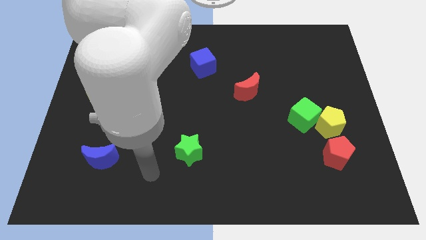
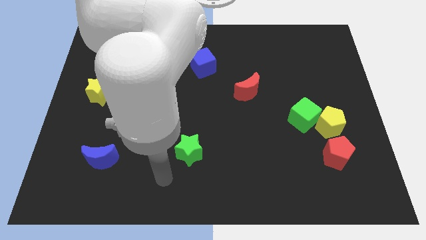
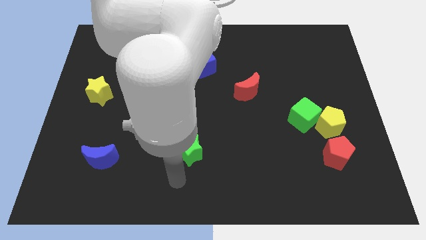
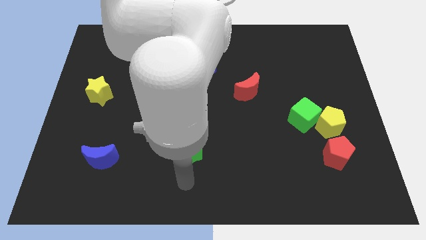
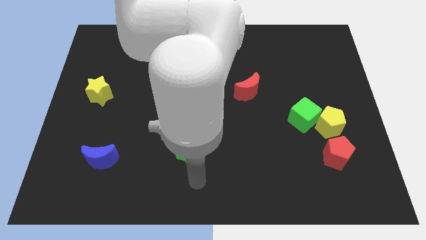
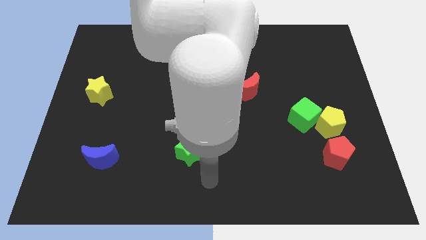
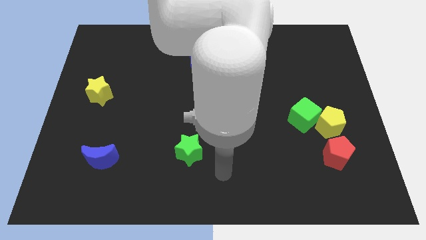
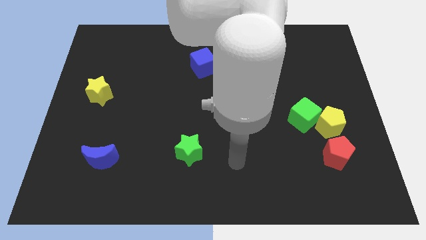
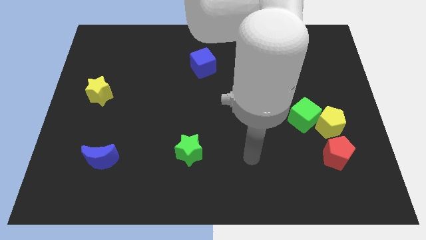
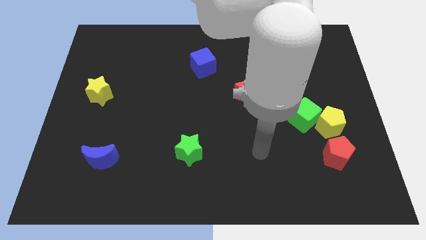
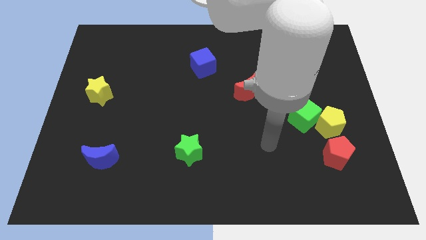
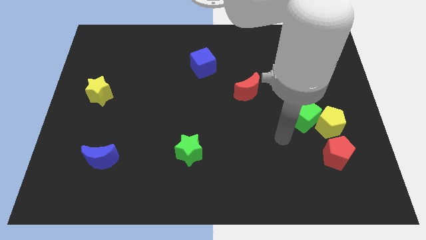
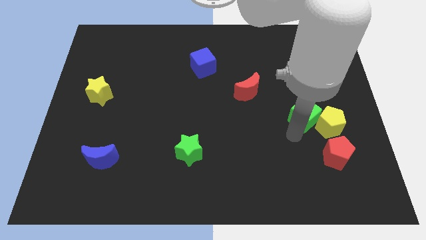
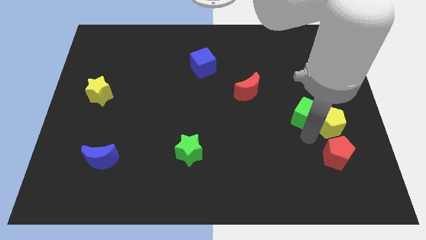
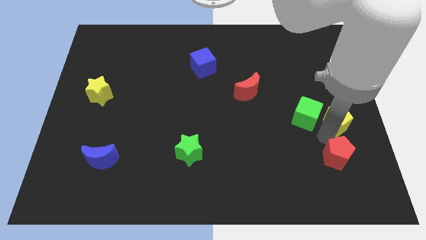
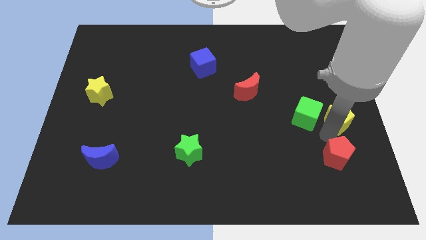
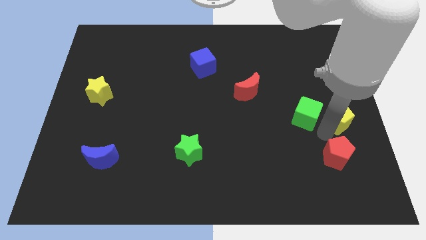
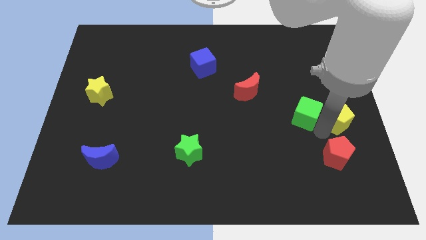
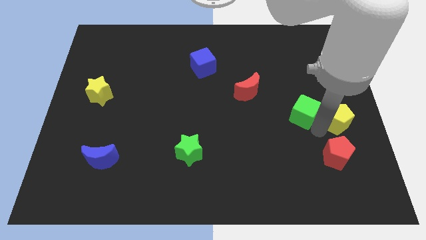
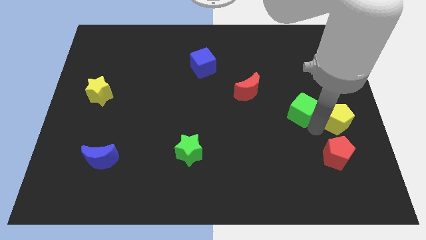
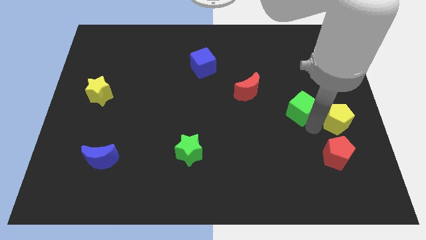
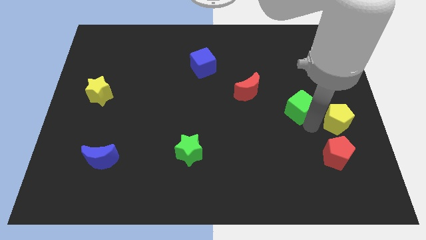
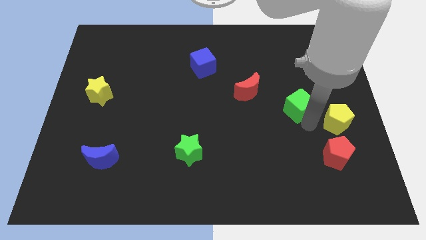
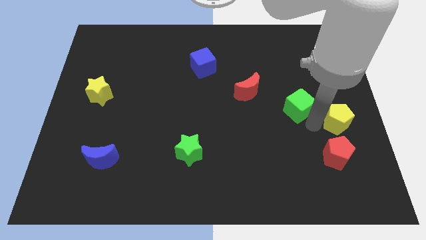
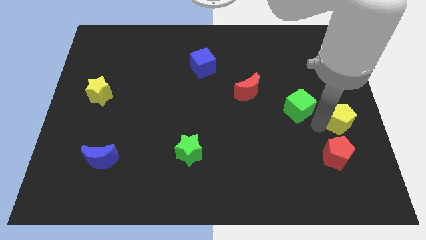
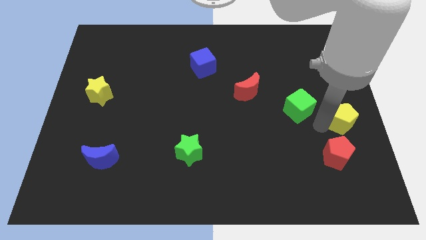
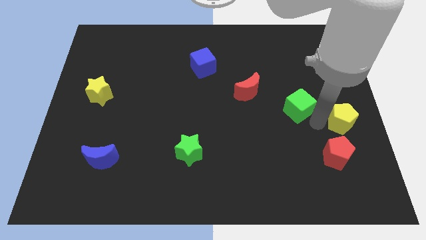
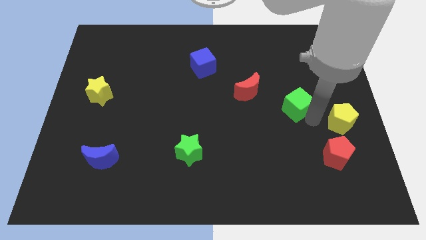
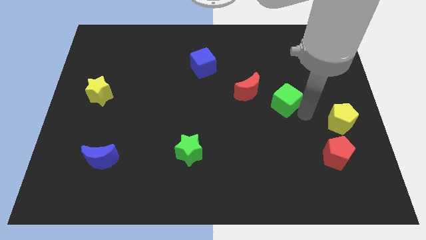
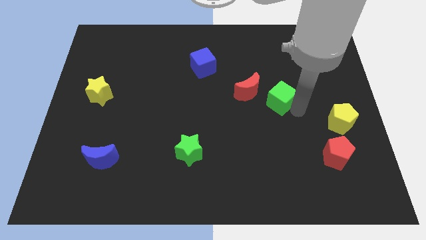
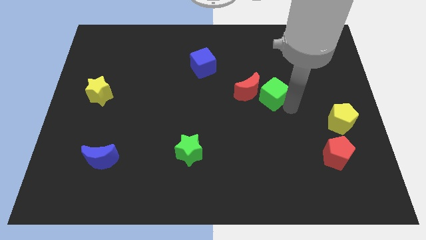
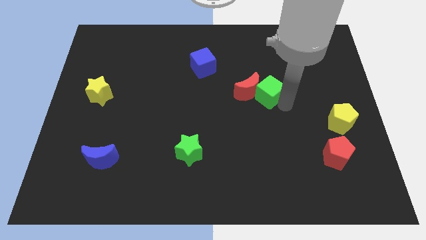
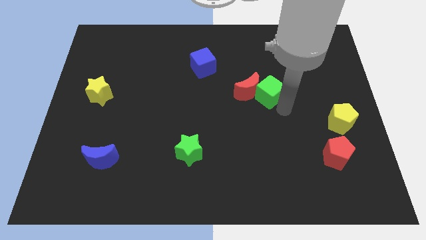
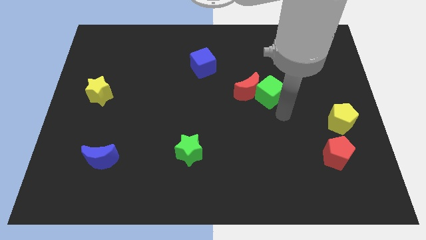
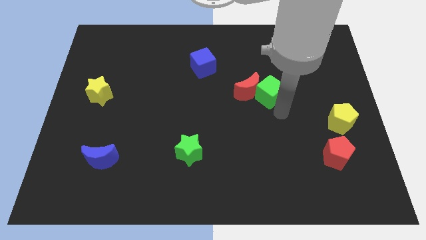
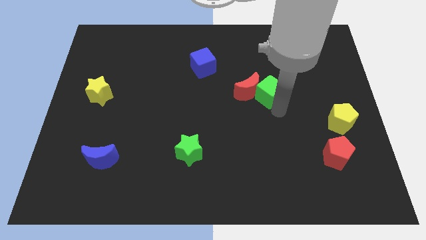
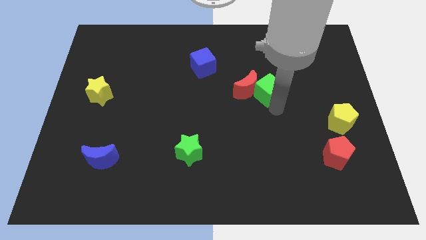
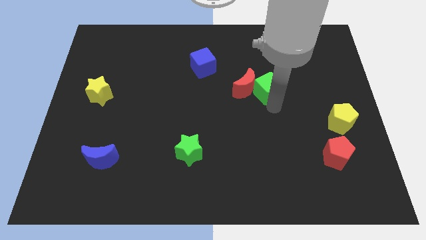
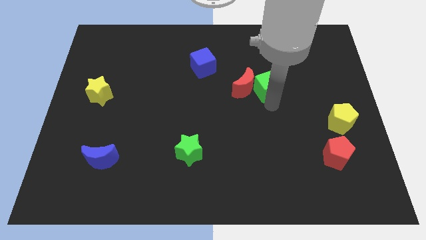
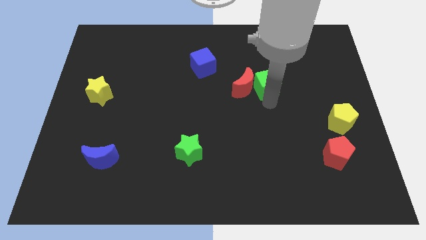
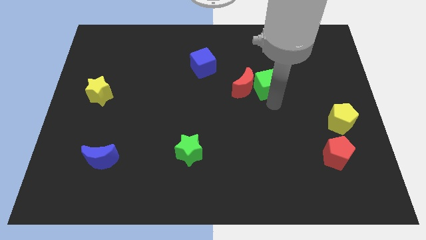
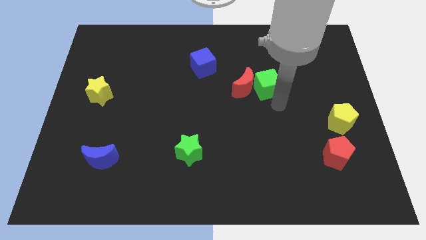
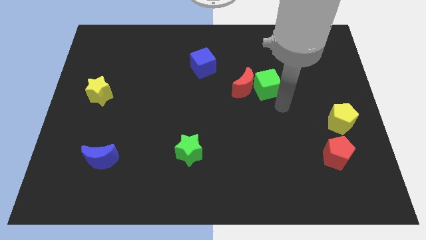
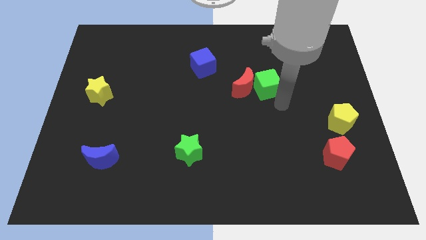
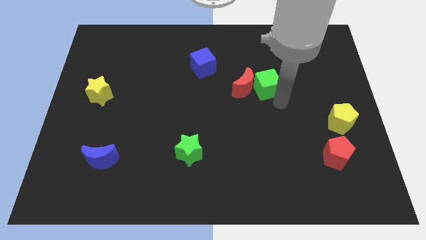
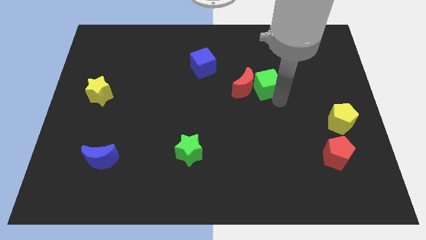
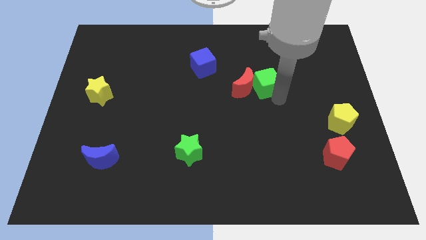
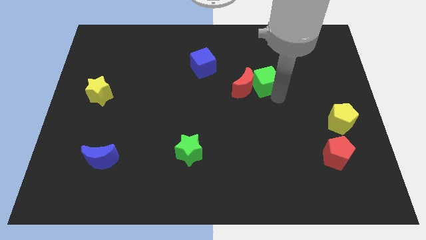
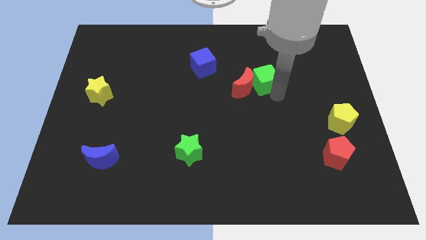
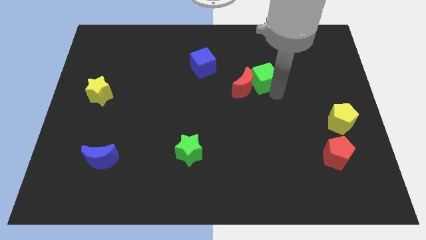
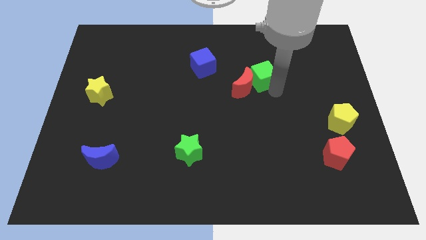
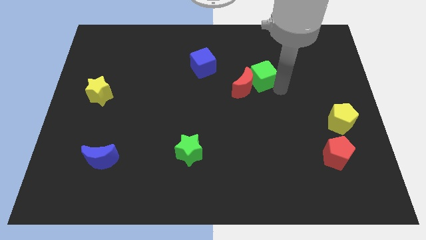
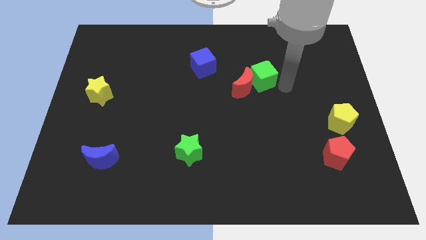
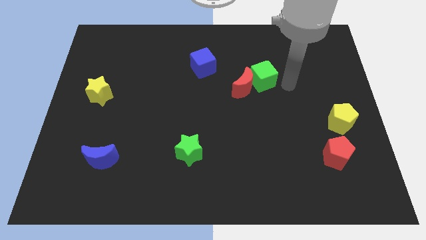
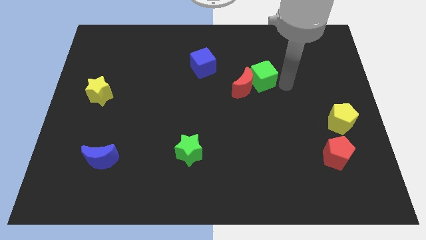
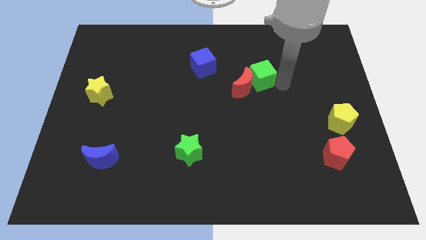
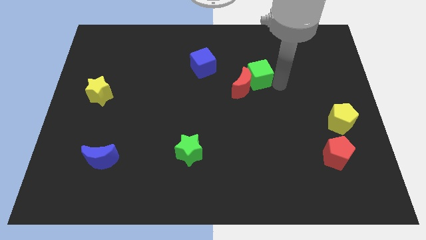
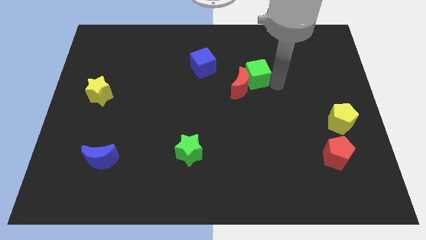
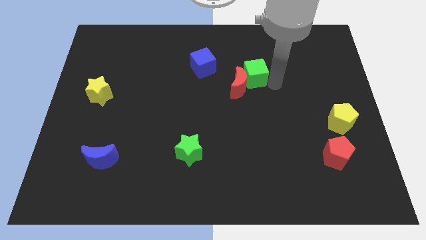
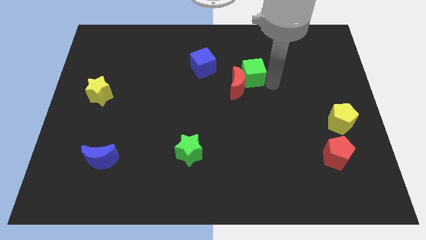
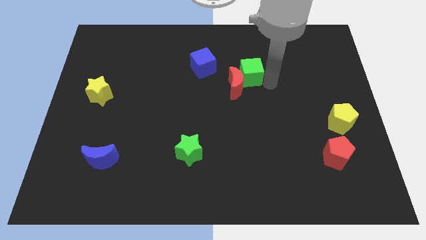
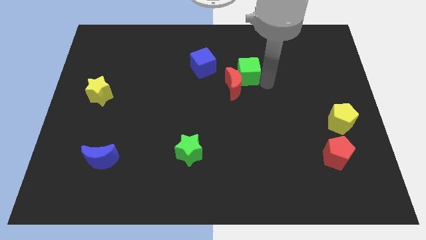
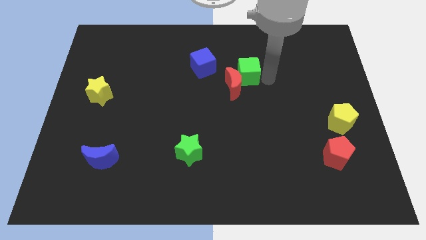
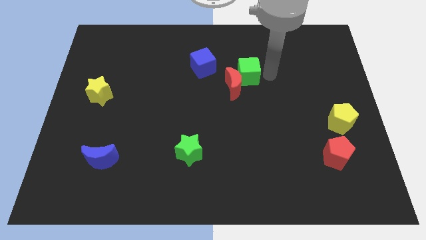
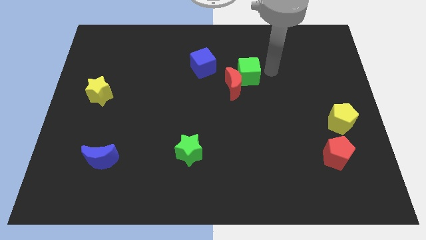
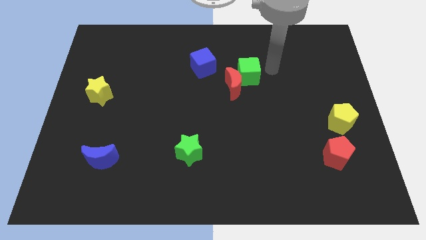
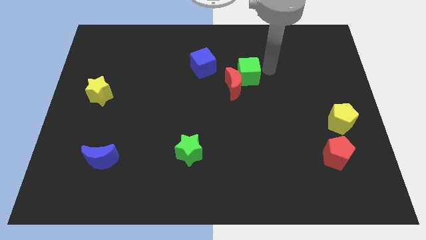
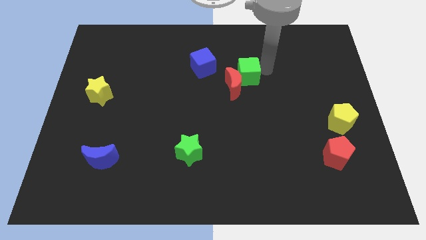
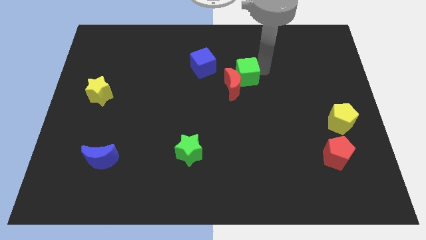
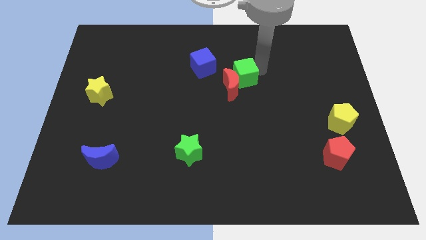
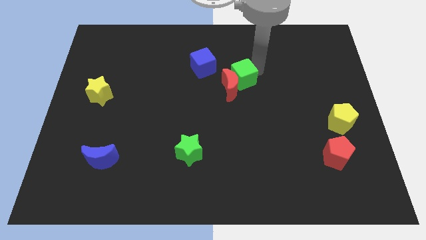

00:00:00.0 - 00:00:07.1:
move the green cube to the bottom right of the blue cube
